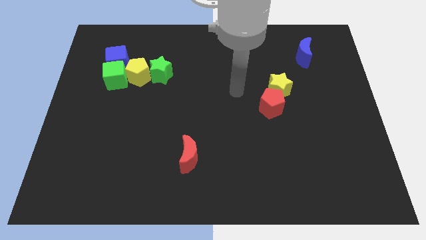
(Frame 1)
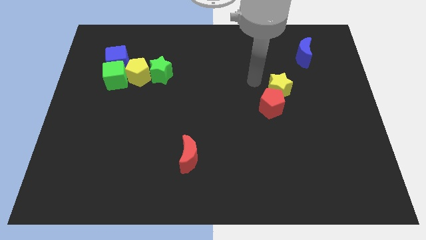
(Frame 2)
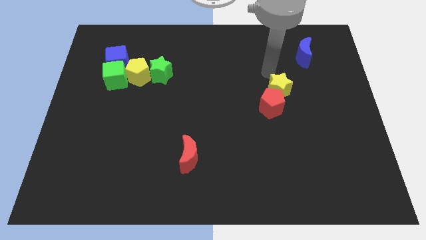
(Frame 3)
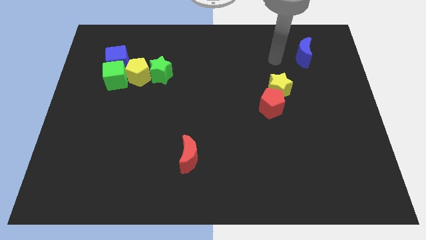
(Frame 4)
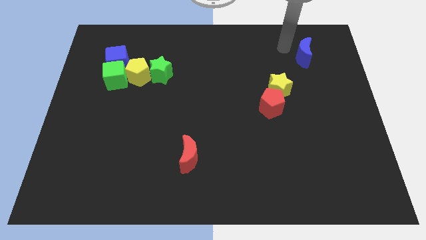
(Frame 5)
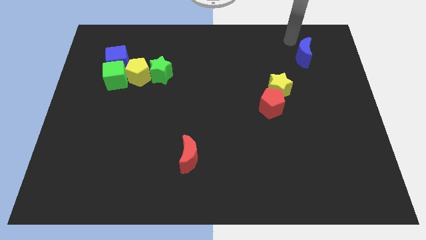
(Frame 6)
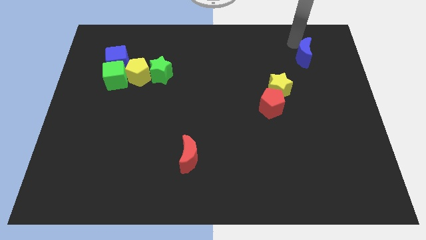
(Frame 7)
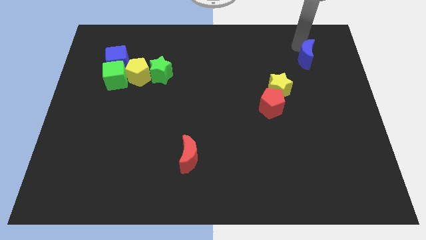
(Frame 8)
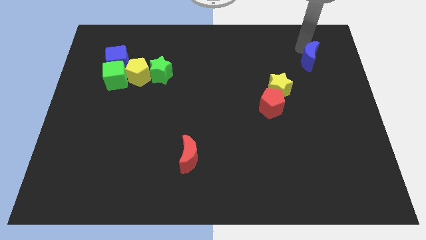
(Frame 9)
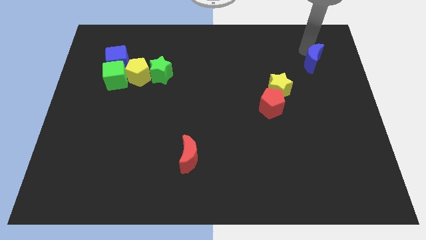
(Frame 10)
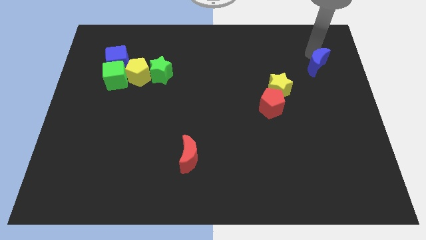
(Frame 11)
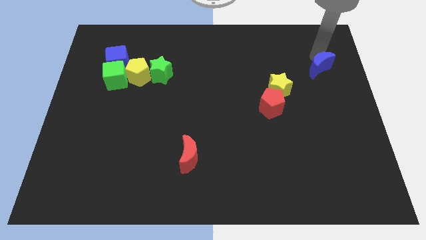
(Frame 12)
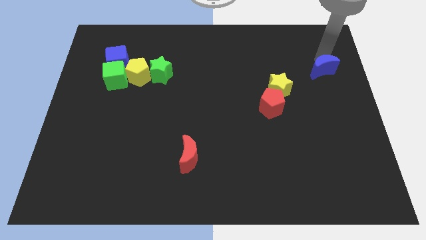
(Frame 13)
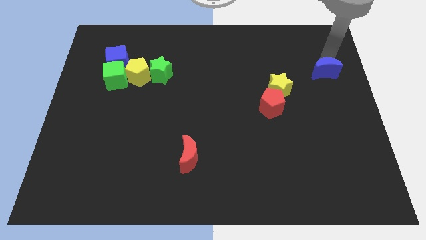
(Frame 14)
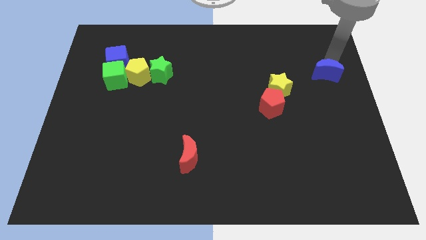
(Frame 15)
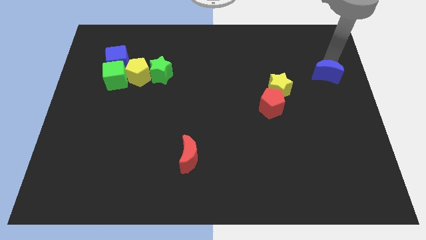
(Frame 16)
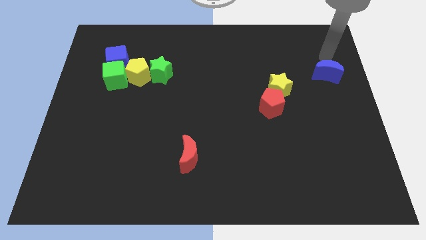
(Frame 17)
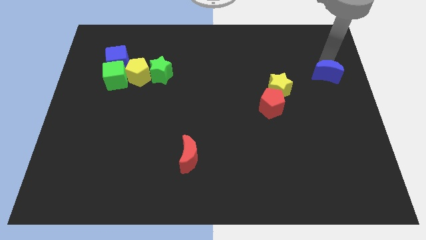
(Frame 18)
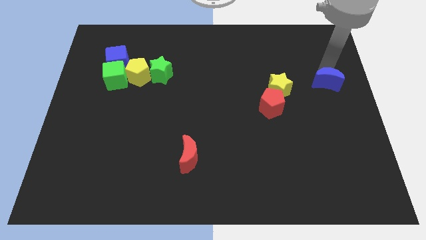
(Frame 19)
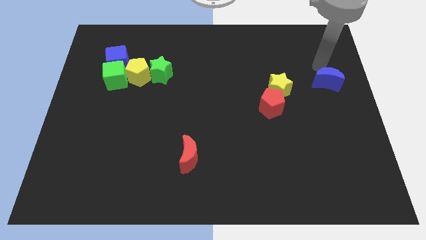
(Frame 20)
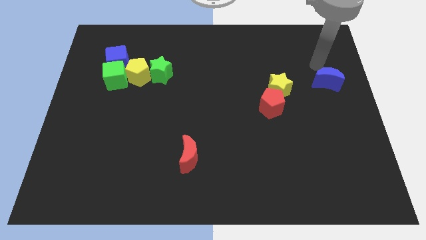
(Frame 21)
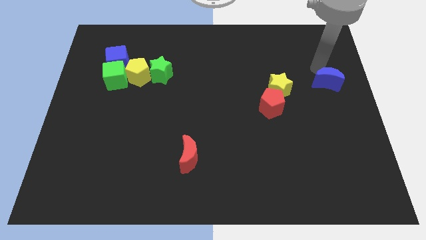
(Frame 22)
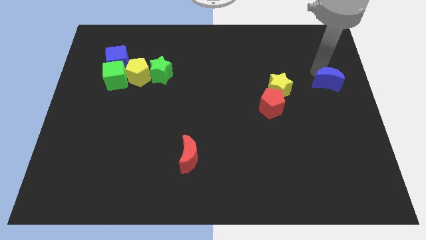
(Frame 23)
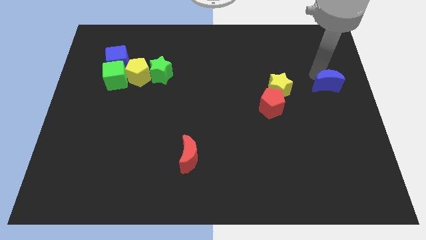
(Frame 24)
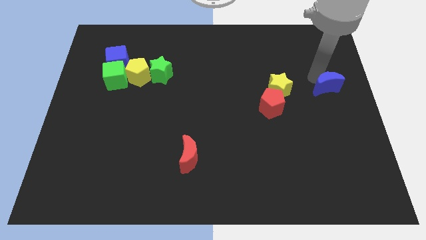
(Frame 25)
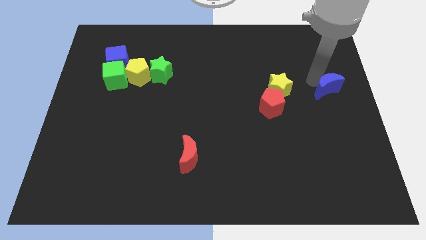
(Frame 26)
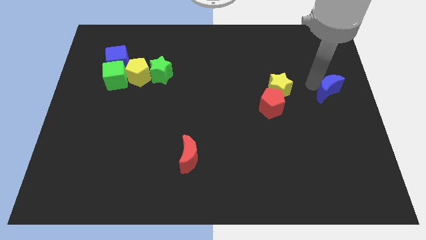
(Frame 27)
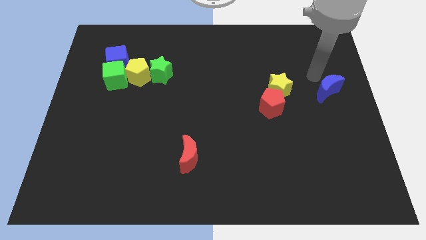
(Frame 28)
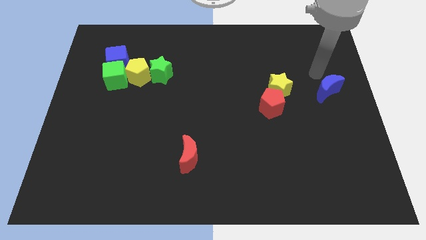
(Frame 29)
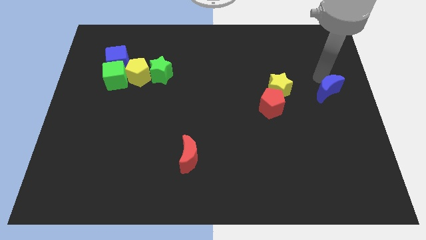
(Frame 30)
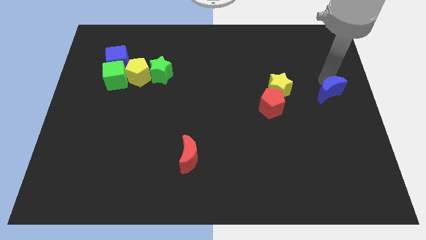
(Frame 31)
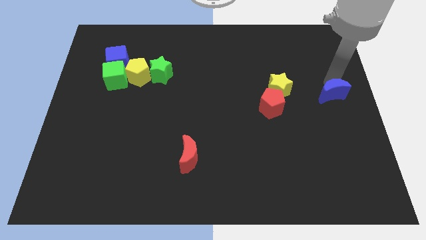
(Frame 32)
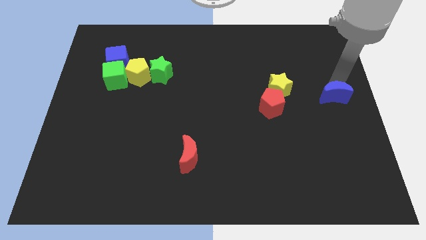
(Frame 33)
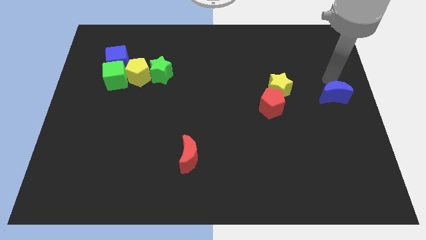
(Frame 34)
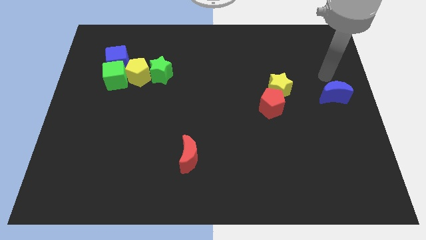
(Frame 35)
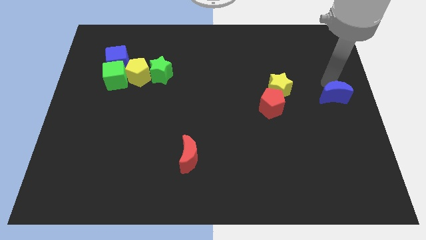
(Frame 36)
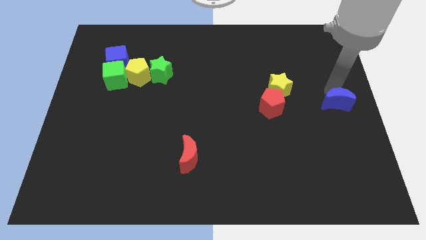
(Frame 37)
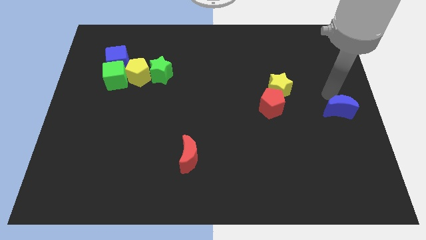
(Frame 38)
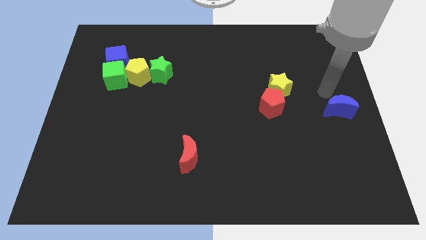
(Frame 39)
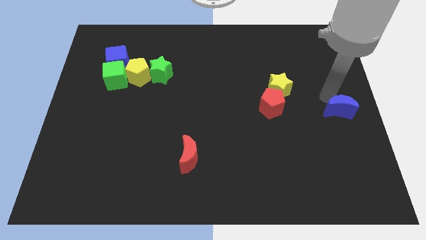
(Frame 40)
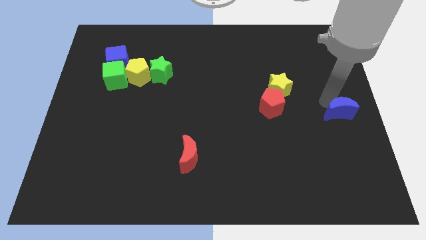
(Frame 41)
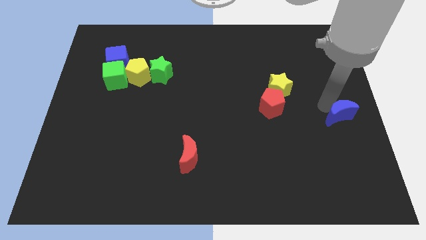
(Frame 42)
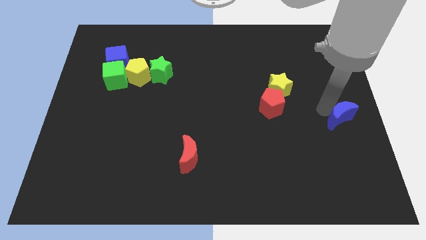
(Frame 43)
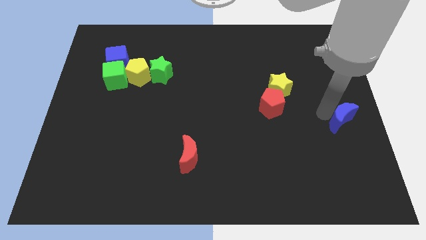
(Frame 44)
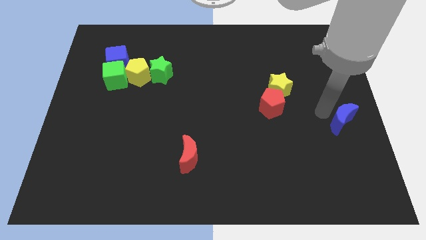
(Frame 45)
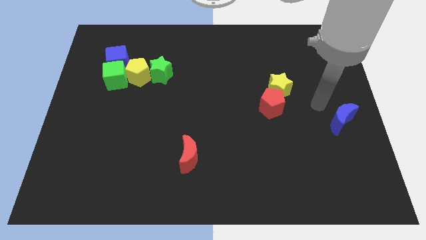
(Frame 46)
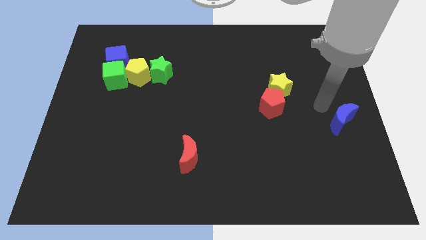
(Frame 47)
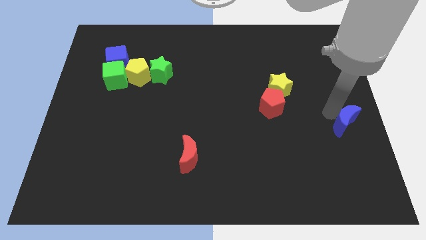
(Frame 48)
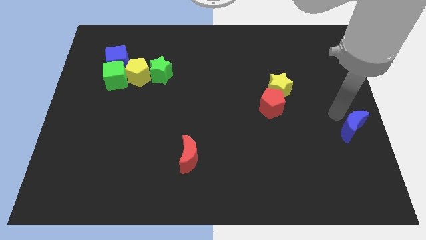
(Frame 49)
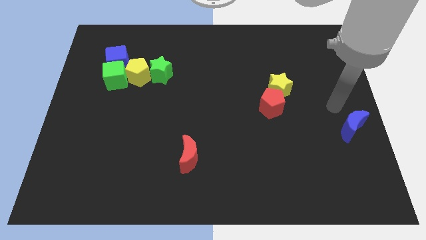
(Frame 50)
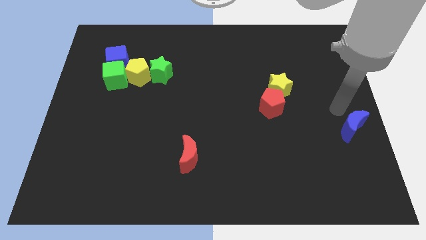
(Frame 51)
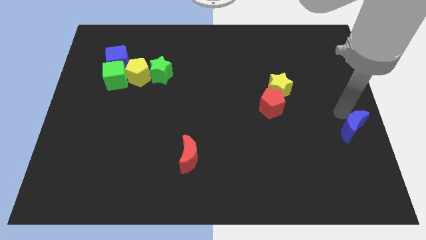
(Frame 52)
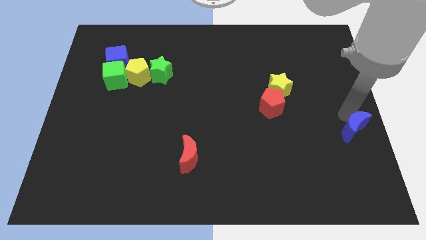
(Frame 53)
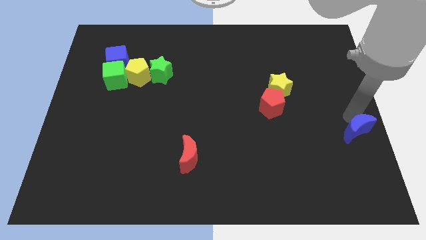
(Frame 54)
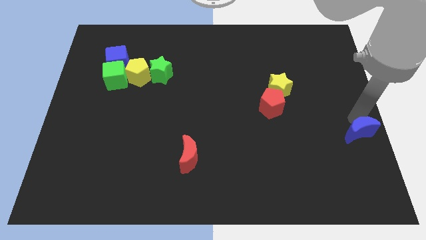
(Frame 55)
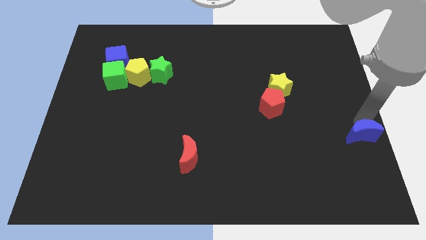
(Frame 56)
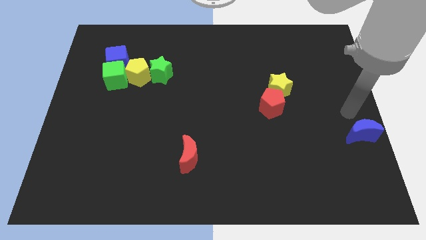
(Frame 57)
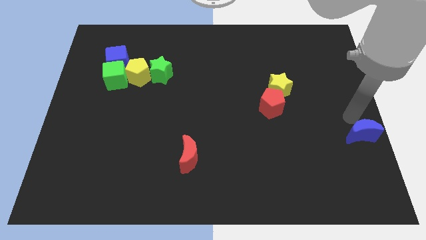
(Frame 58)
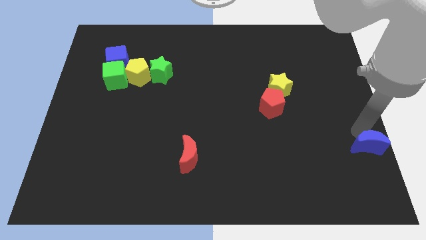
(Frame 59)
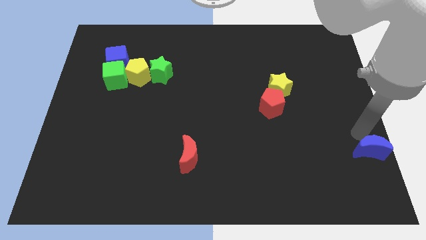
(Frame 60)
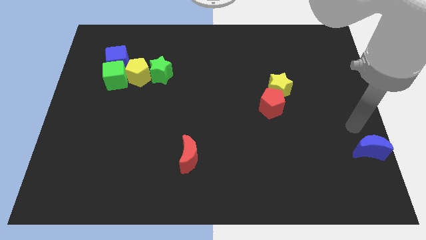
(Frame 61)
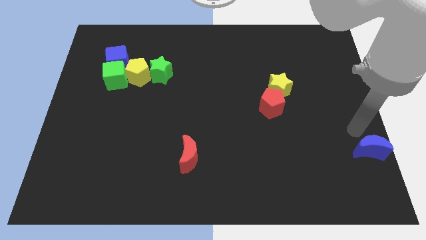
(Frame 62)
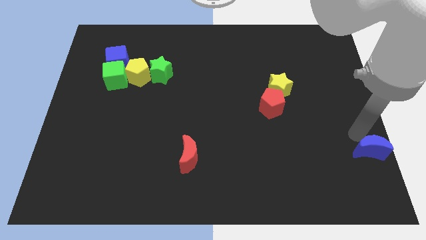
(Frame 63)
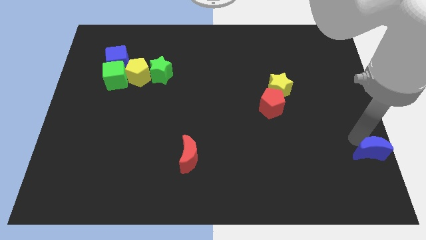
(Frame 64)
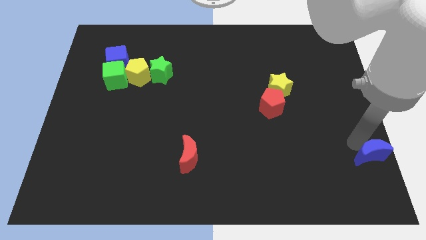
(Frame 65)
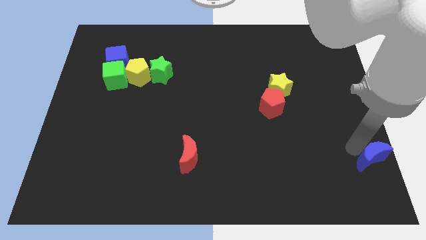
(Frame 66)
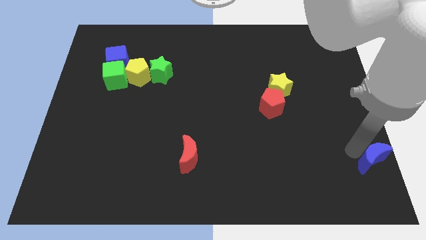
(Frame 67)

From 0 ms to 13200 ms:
slide the blue moon to the bottom right of the board
